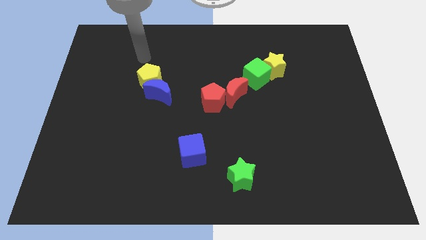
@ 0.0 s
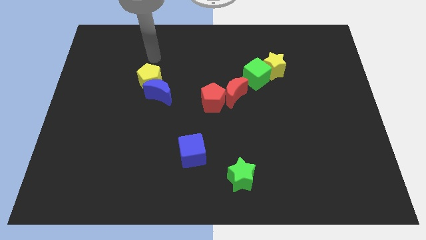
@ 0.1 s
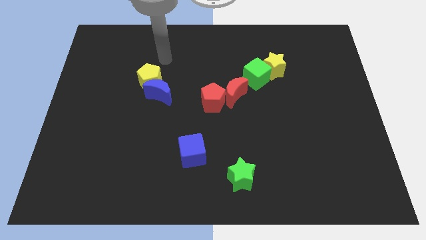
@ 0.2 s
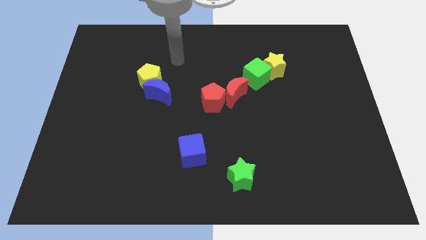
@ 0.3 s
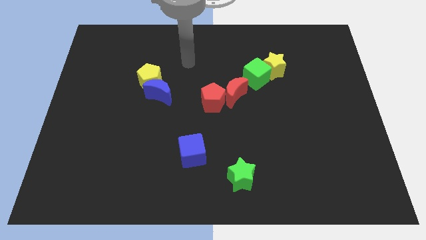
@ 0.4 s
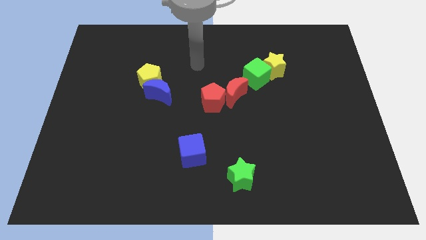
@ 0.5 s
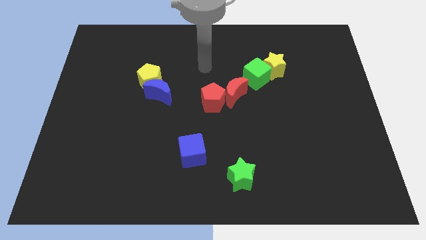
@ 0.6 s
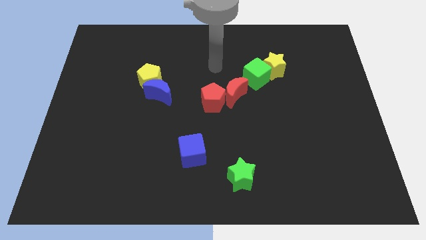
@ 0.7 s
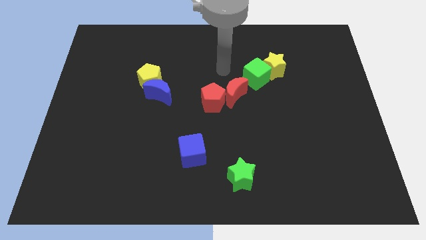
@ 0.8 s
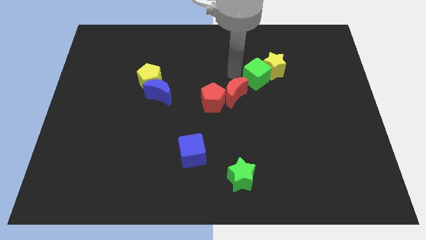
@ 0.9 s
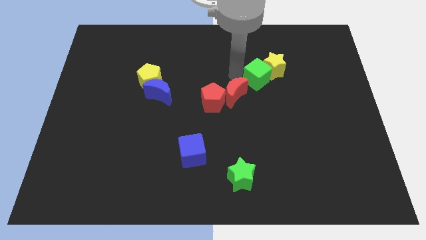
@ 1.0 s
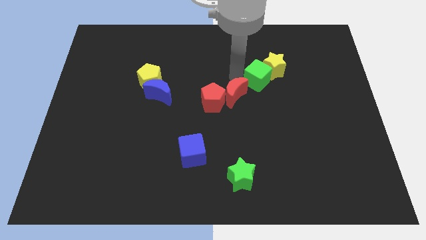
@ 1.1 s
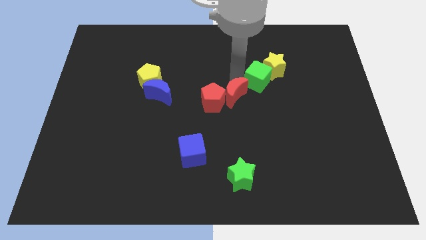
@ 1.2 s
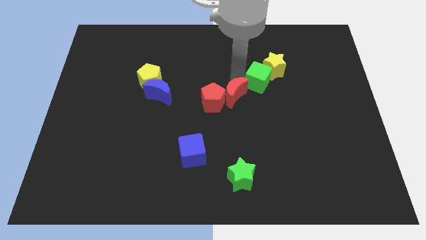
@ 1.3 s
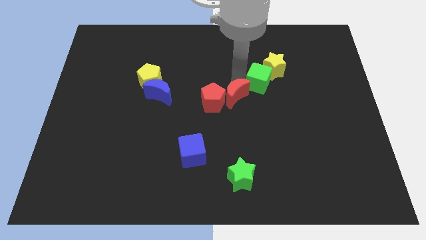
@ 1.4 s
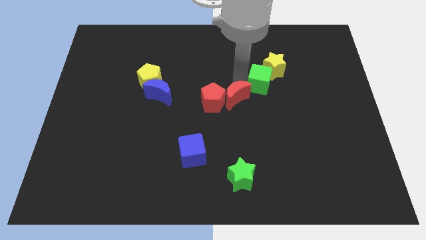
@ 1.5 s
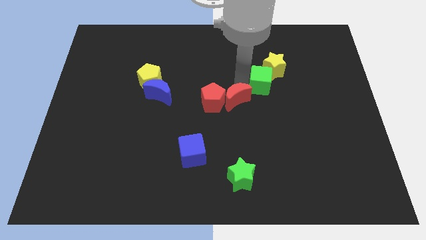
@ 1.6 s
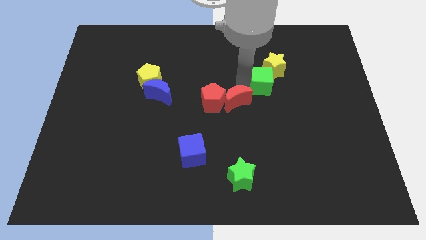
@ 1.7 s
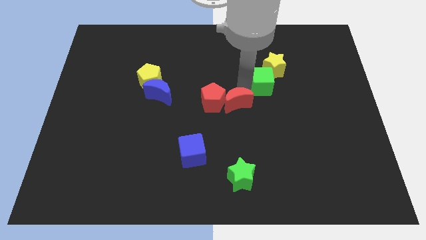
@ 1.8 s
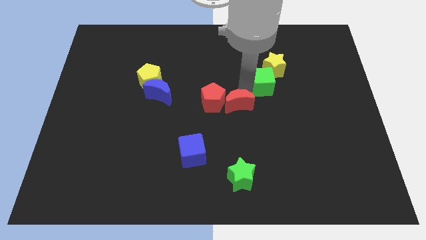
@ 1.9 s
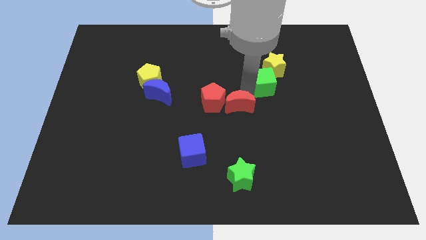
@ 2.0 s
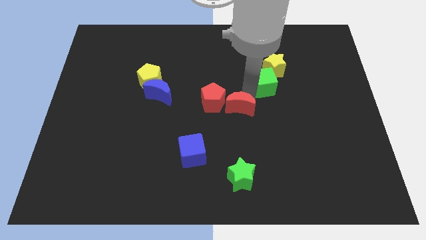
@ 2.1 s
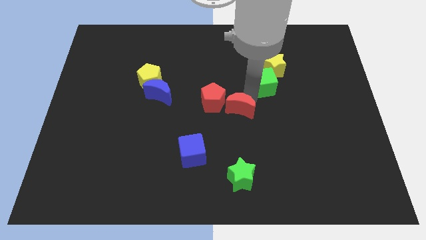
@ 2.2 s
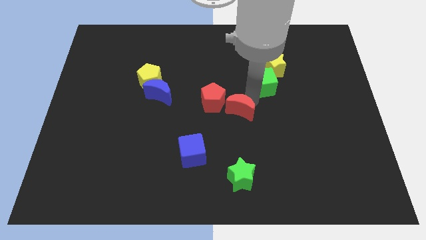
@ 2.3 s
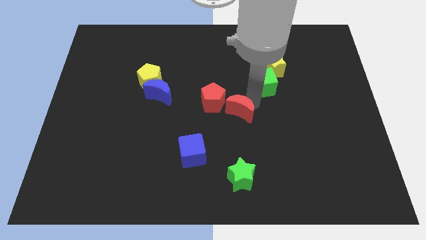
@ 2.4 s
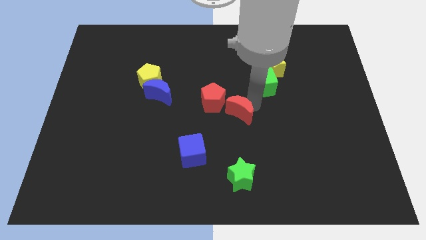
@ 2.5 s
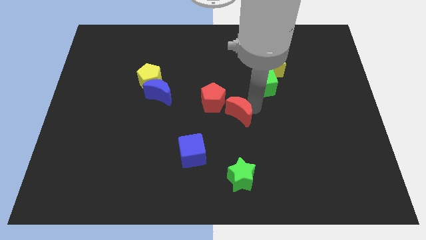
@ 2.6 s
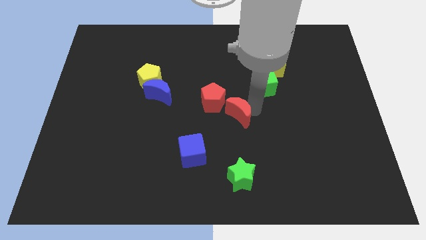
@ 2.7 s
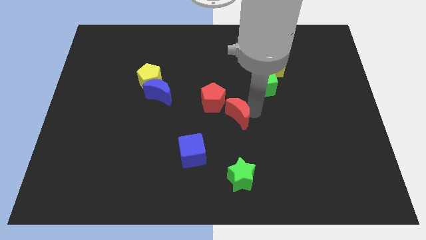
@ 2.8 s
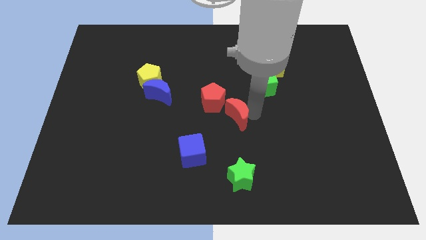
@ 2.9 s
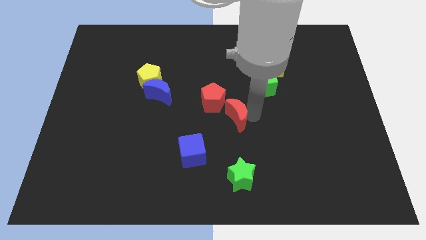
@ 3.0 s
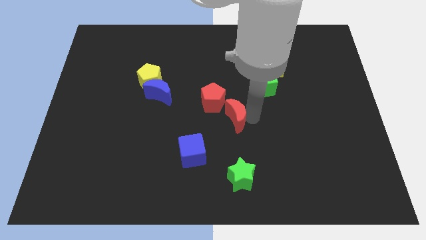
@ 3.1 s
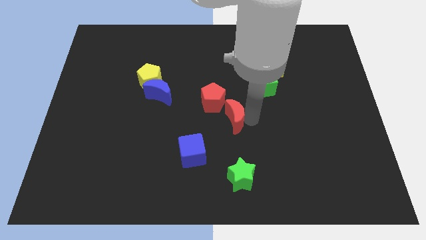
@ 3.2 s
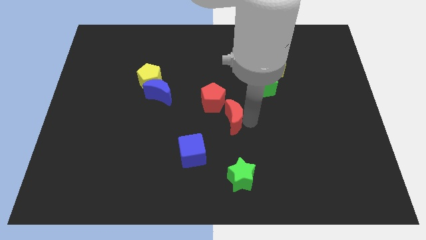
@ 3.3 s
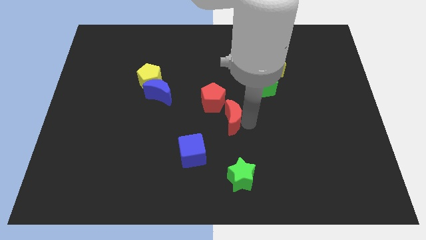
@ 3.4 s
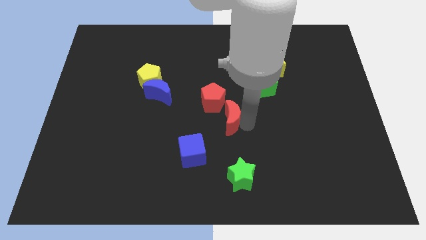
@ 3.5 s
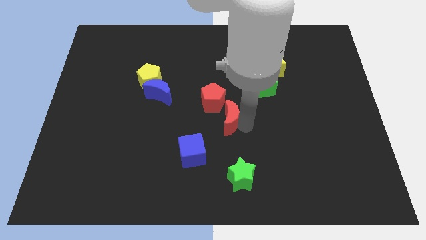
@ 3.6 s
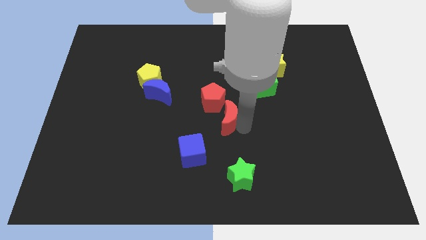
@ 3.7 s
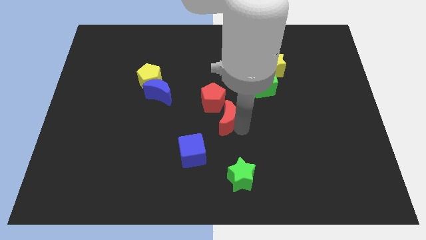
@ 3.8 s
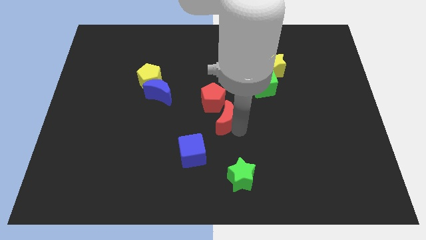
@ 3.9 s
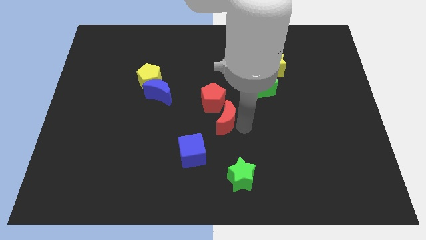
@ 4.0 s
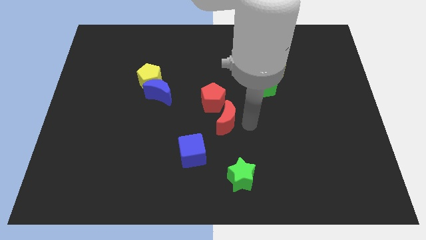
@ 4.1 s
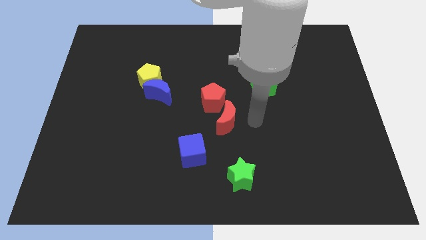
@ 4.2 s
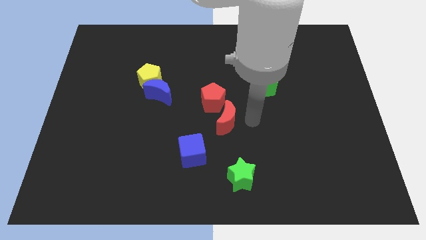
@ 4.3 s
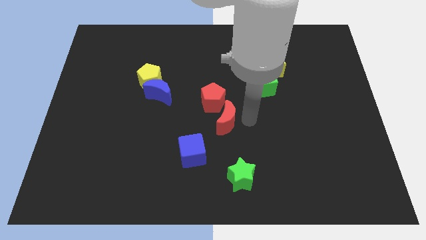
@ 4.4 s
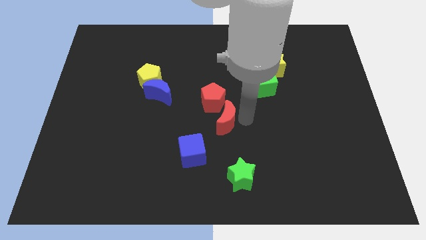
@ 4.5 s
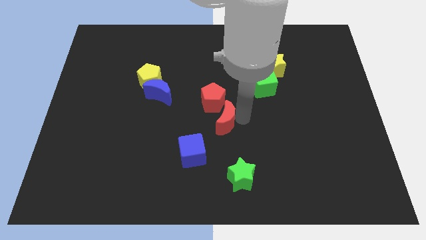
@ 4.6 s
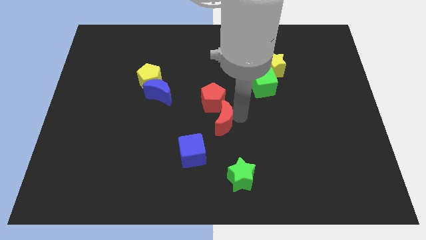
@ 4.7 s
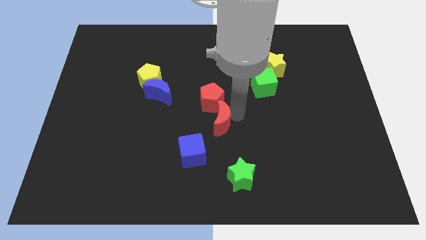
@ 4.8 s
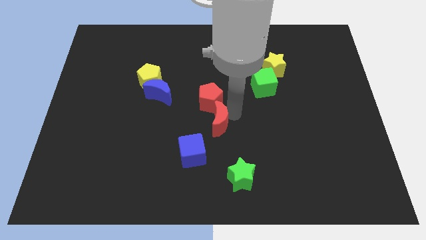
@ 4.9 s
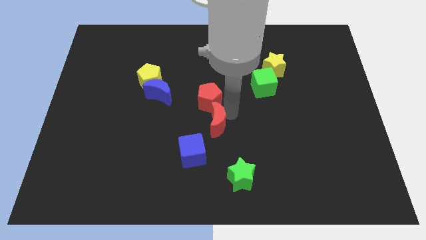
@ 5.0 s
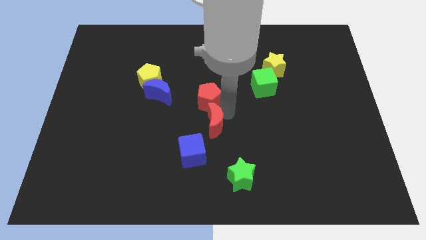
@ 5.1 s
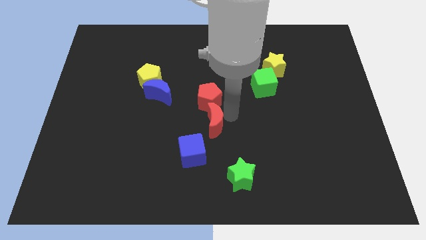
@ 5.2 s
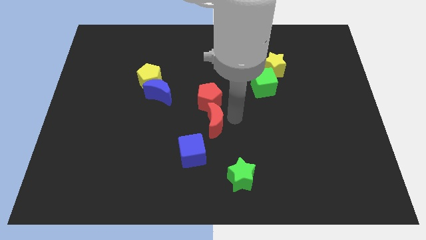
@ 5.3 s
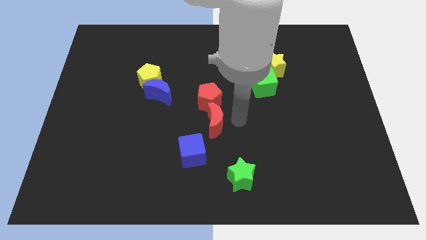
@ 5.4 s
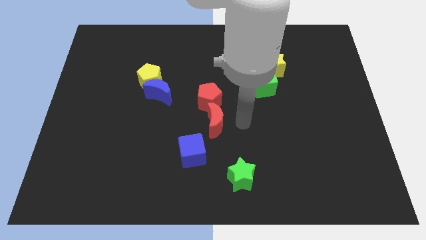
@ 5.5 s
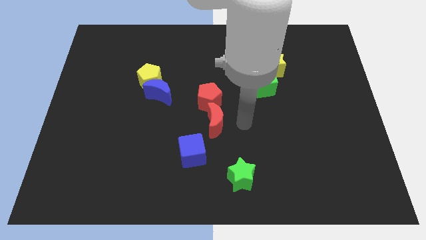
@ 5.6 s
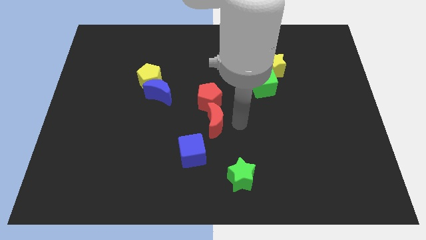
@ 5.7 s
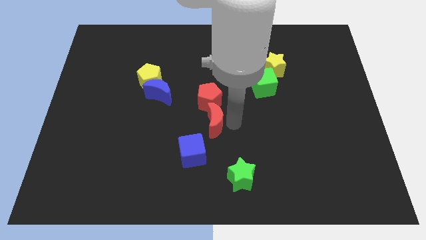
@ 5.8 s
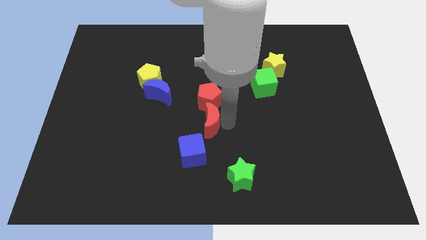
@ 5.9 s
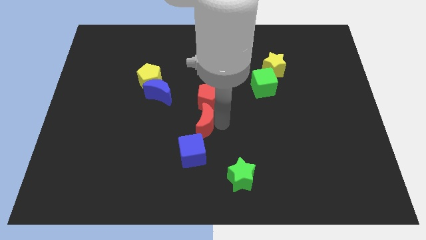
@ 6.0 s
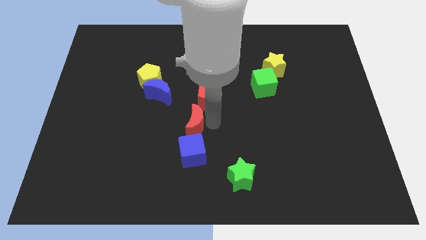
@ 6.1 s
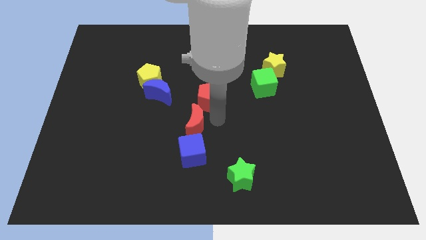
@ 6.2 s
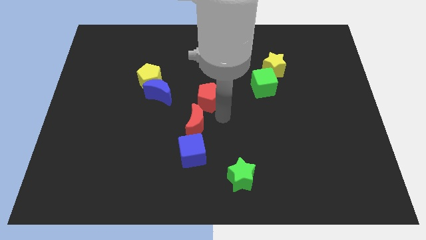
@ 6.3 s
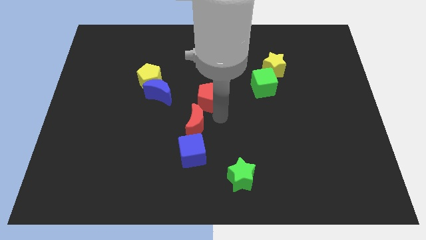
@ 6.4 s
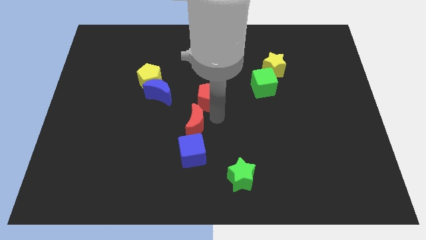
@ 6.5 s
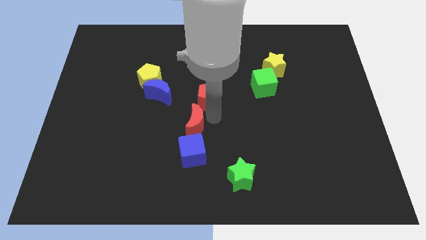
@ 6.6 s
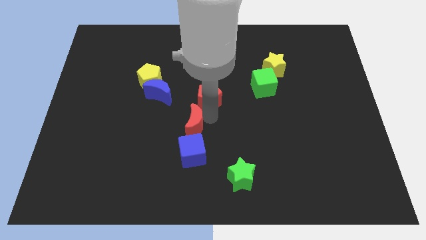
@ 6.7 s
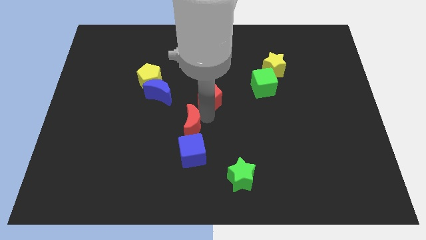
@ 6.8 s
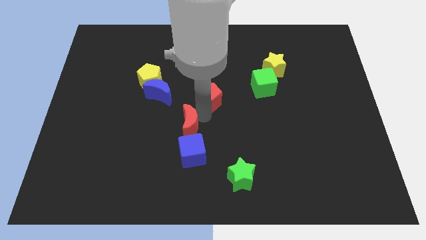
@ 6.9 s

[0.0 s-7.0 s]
slide the red moon diagonally up and to the left of the blue cube

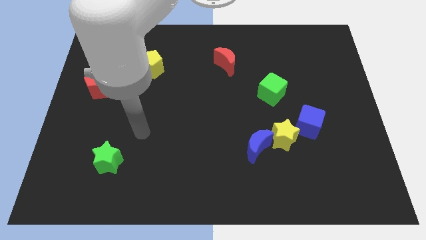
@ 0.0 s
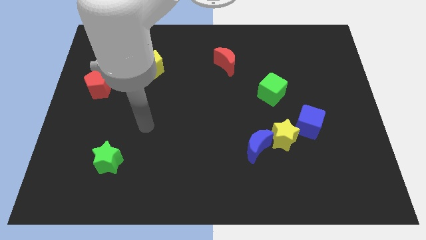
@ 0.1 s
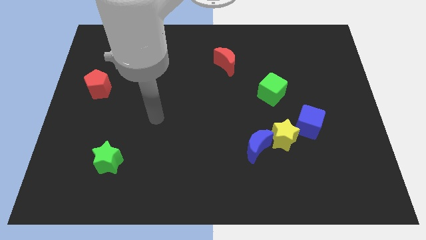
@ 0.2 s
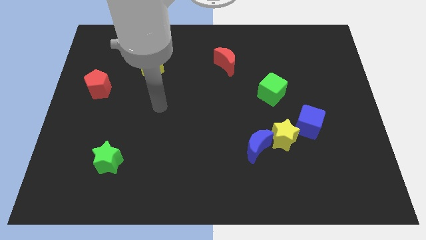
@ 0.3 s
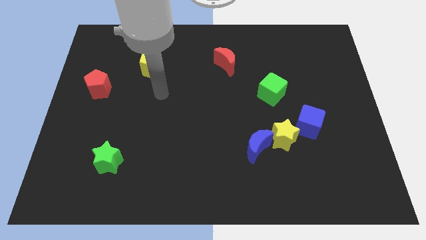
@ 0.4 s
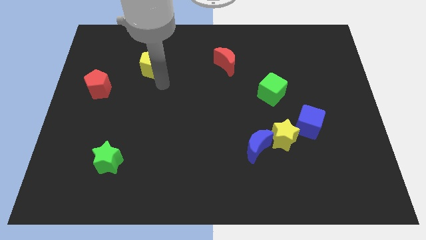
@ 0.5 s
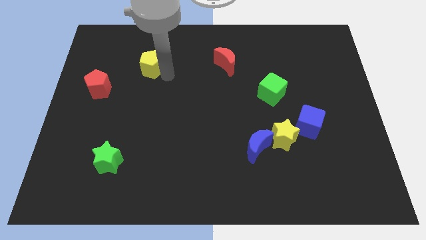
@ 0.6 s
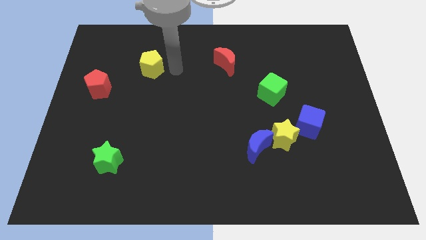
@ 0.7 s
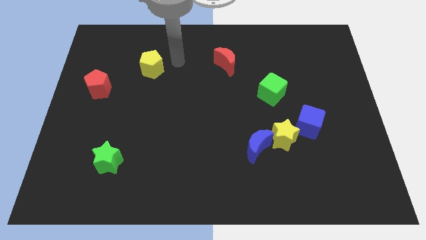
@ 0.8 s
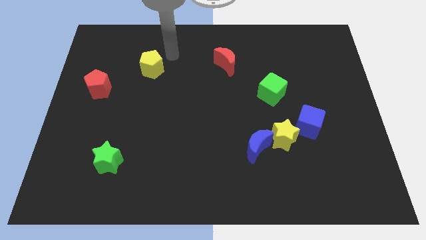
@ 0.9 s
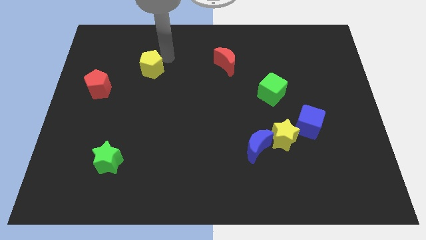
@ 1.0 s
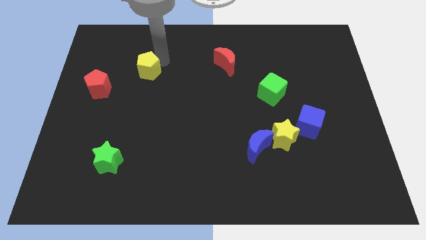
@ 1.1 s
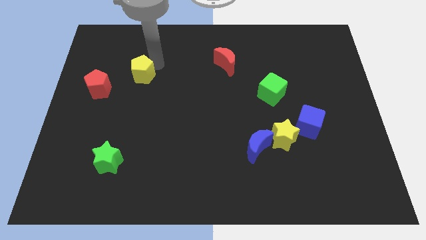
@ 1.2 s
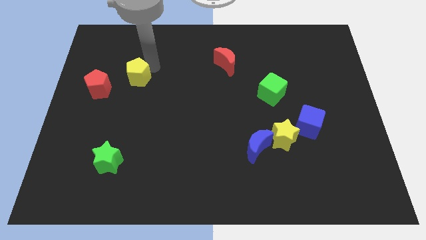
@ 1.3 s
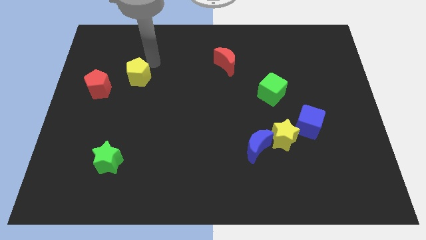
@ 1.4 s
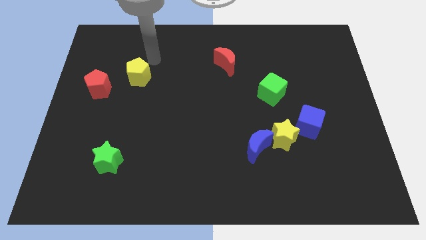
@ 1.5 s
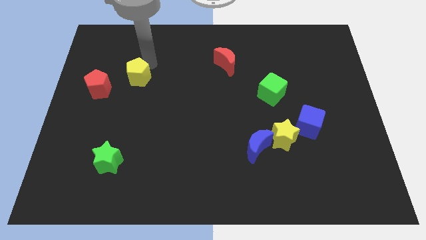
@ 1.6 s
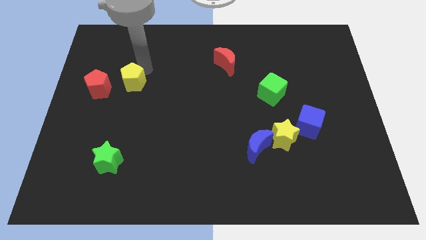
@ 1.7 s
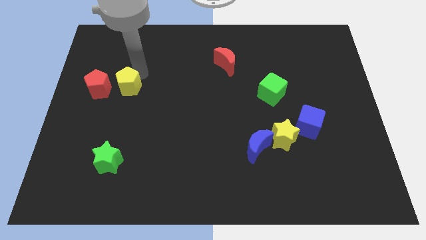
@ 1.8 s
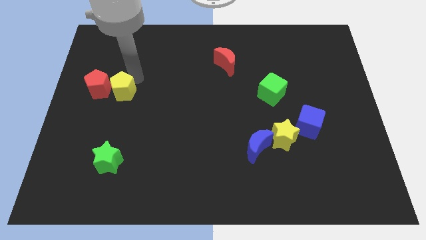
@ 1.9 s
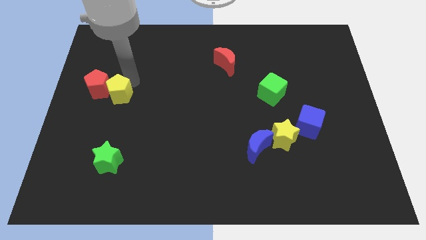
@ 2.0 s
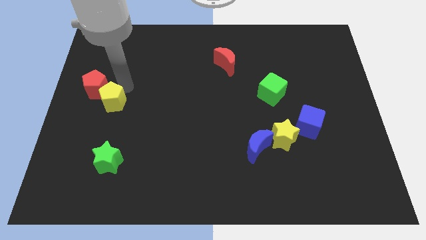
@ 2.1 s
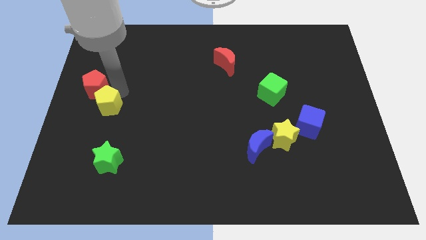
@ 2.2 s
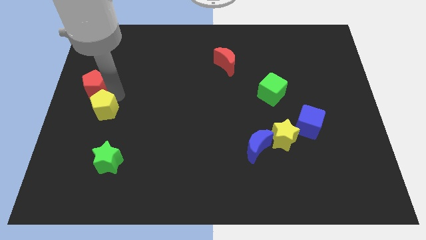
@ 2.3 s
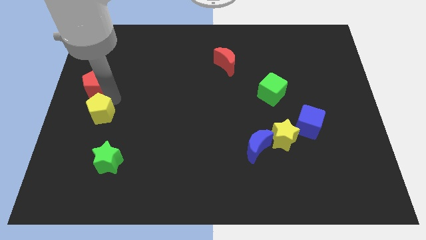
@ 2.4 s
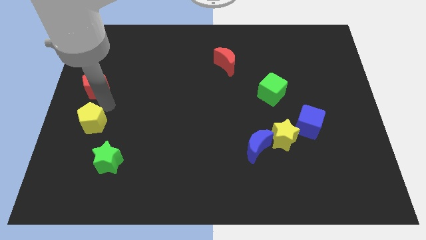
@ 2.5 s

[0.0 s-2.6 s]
put the yellow pentagon to the top left of the green star
